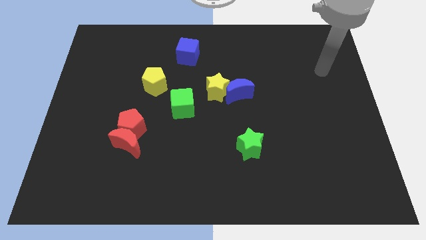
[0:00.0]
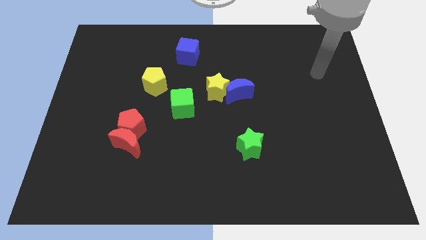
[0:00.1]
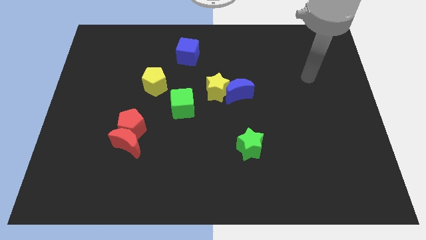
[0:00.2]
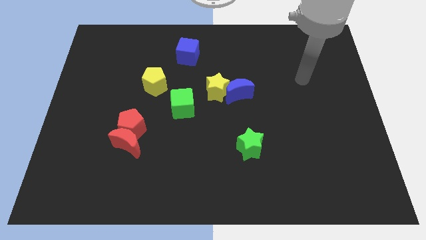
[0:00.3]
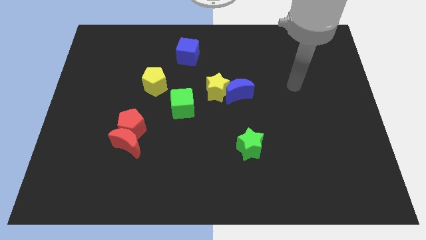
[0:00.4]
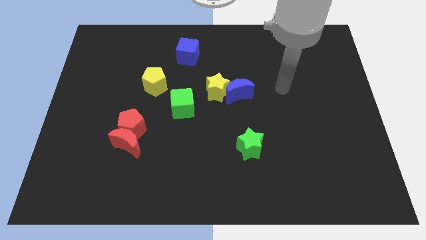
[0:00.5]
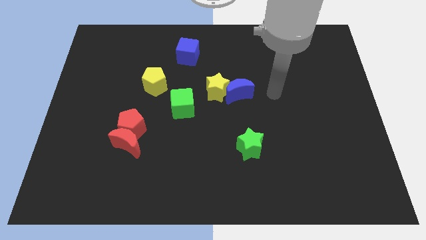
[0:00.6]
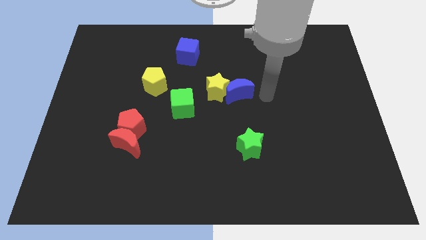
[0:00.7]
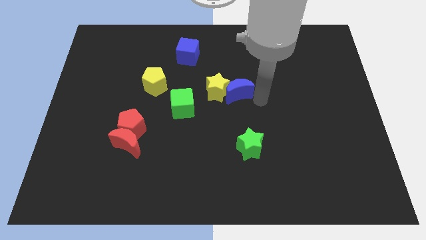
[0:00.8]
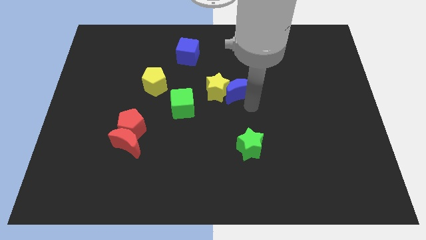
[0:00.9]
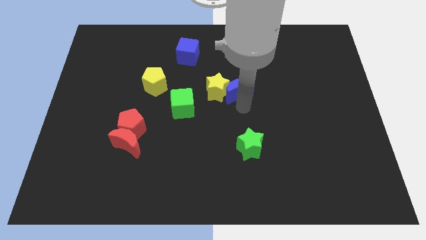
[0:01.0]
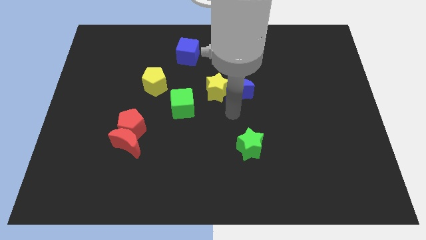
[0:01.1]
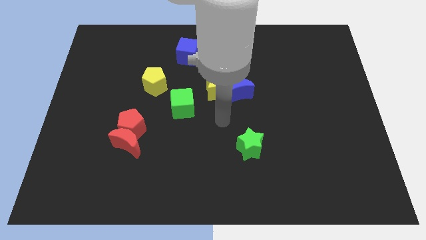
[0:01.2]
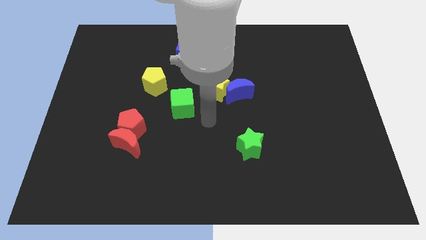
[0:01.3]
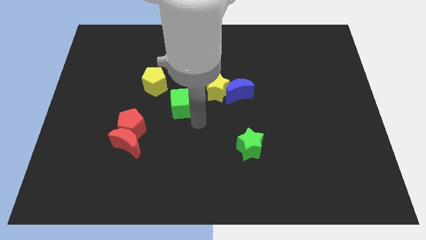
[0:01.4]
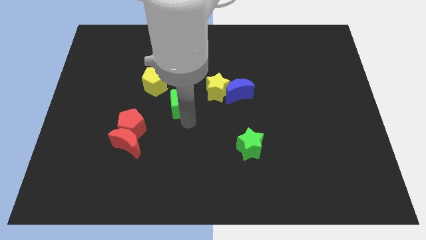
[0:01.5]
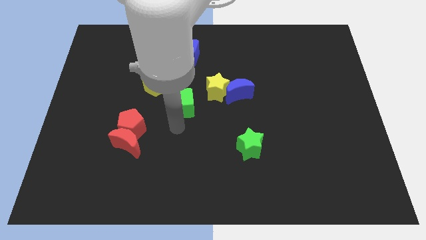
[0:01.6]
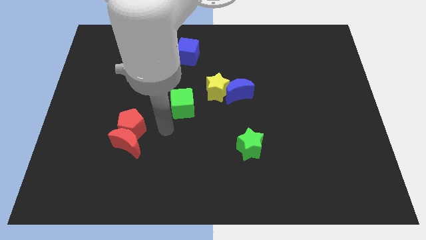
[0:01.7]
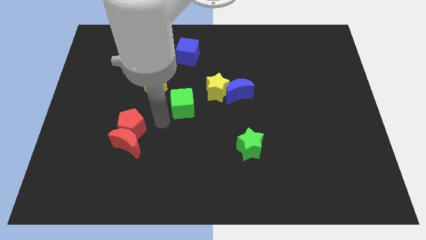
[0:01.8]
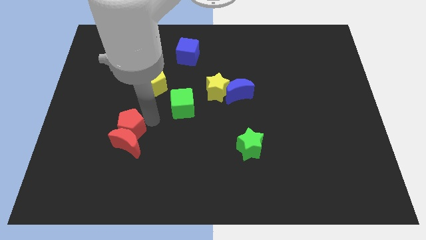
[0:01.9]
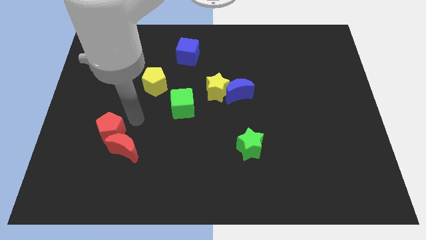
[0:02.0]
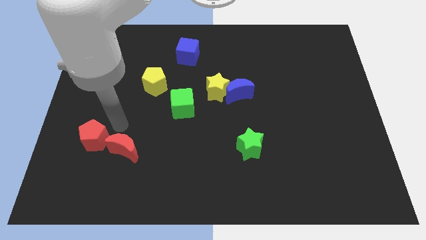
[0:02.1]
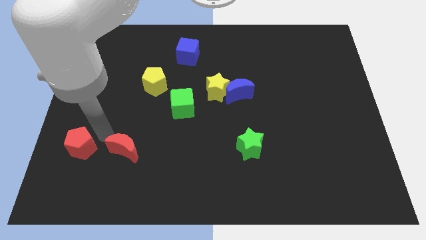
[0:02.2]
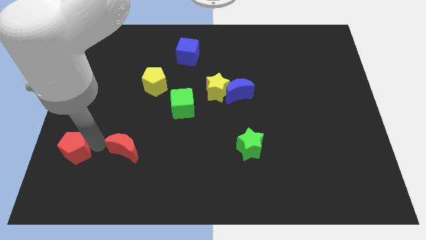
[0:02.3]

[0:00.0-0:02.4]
separate the red moon from the red pentagon

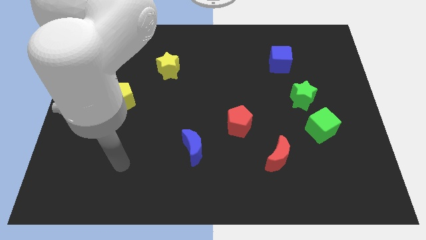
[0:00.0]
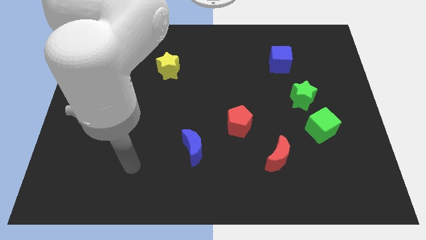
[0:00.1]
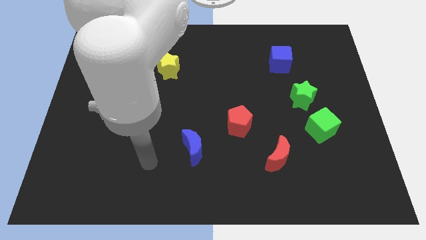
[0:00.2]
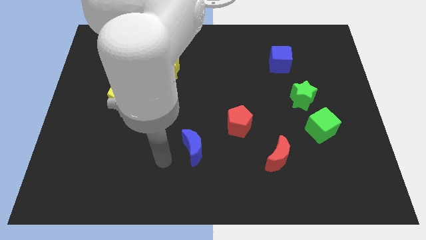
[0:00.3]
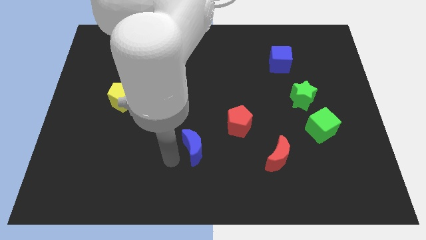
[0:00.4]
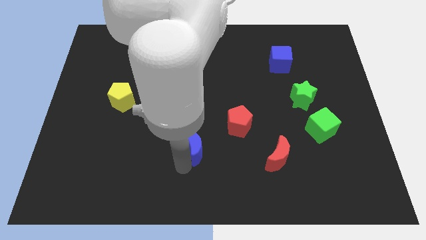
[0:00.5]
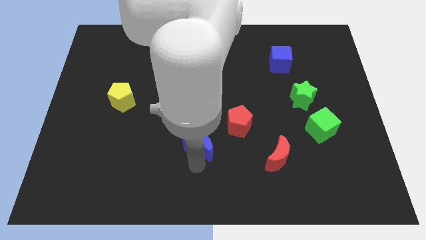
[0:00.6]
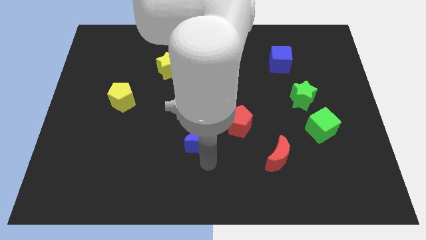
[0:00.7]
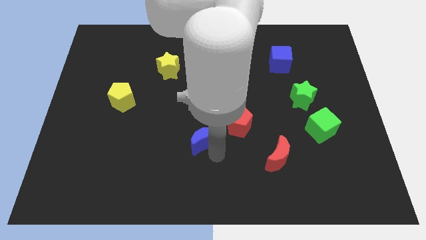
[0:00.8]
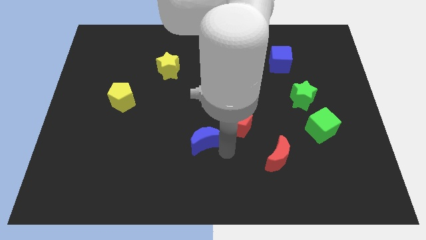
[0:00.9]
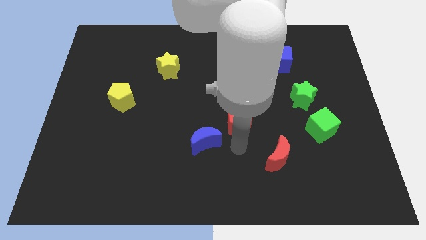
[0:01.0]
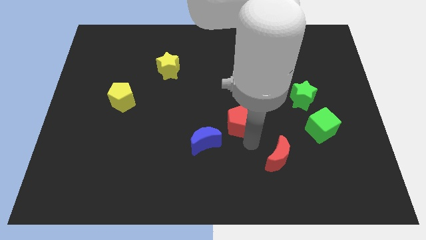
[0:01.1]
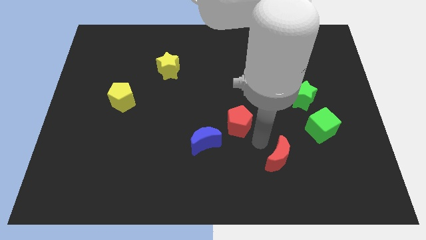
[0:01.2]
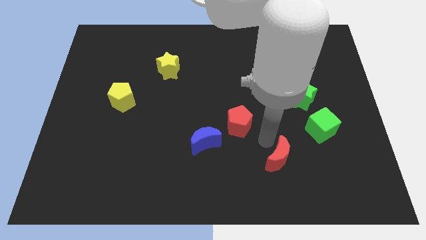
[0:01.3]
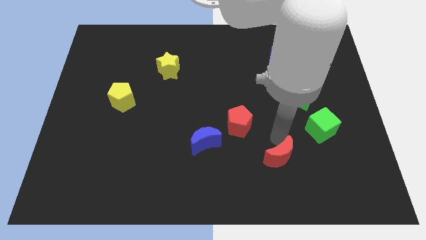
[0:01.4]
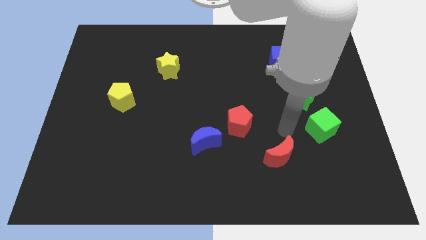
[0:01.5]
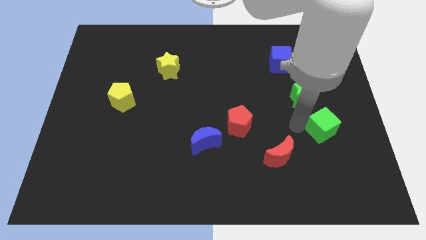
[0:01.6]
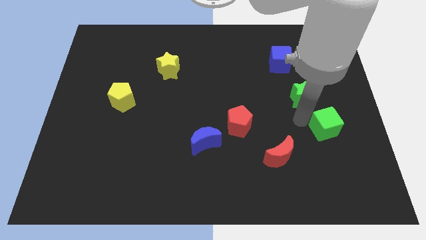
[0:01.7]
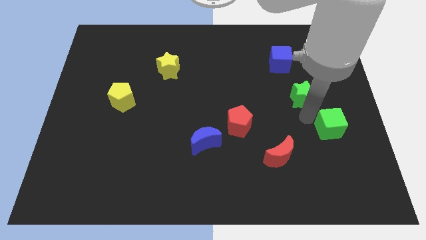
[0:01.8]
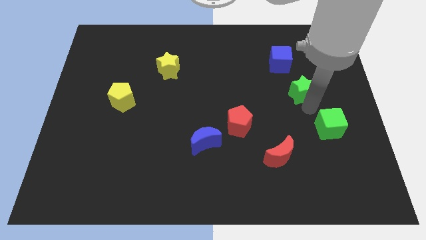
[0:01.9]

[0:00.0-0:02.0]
move the green cube away from the green star

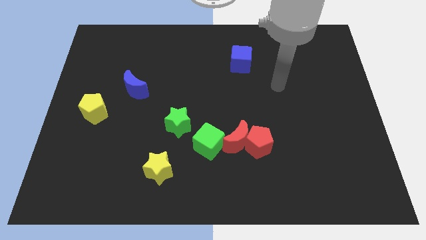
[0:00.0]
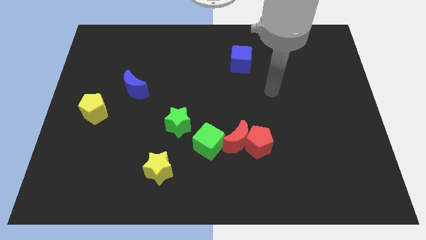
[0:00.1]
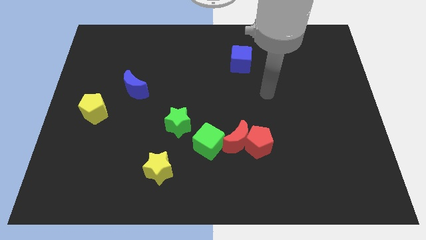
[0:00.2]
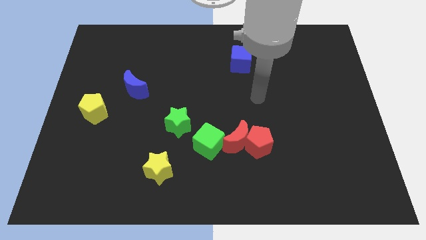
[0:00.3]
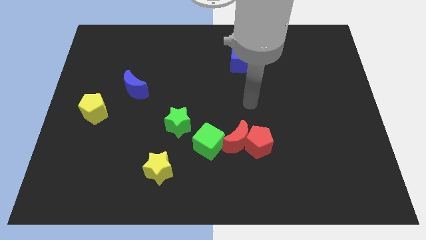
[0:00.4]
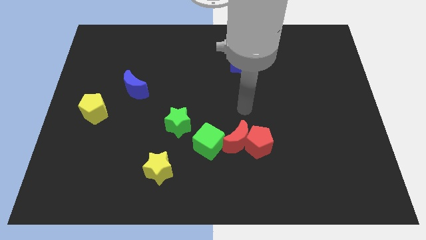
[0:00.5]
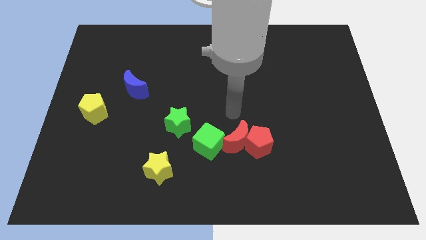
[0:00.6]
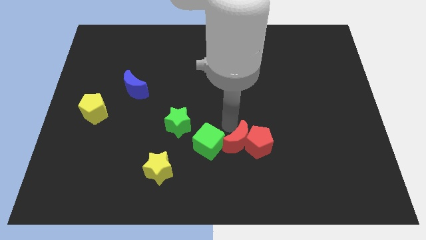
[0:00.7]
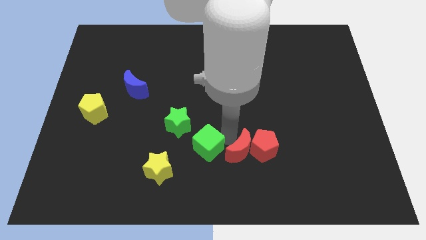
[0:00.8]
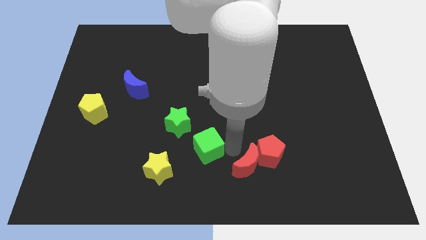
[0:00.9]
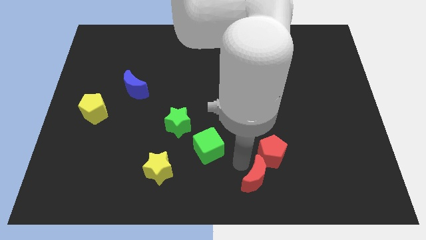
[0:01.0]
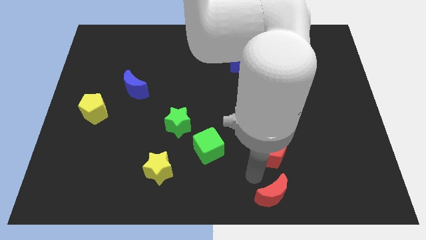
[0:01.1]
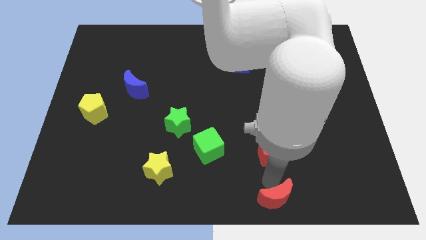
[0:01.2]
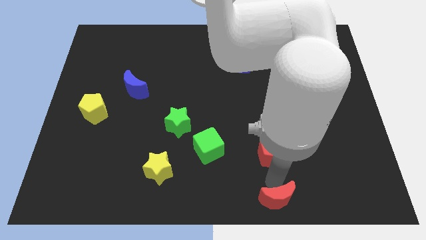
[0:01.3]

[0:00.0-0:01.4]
separate the red pentagon from the red moon

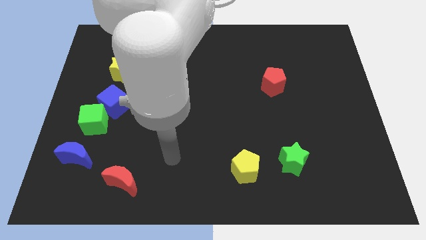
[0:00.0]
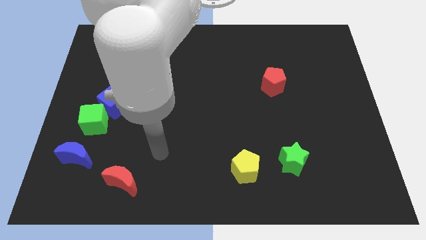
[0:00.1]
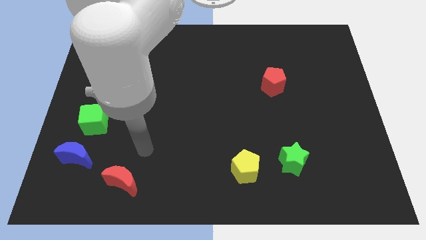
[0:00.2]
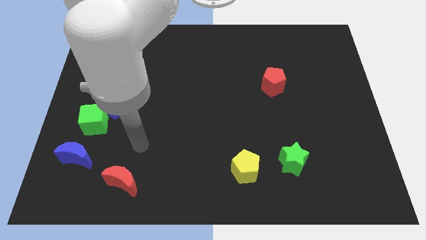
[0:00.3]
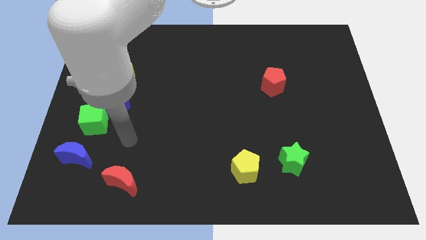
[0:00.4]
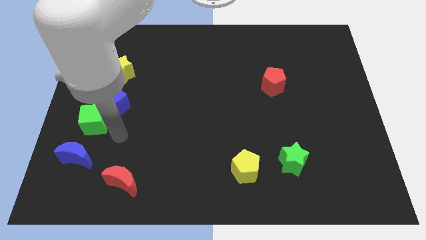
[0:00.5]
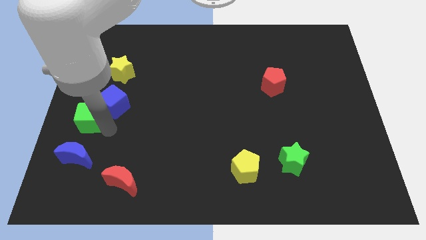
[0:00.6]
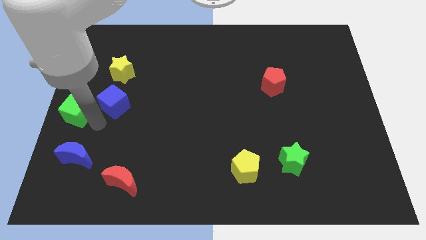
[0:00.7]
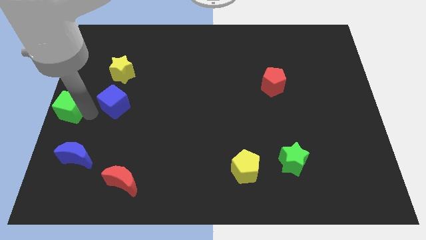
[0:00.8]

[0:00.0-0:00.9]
separate the blue cube from the green cube

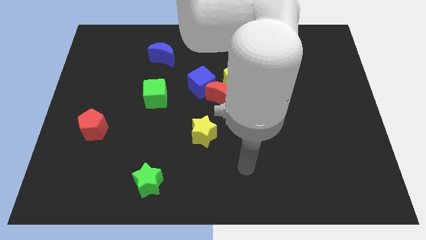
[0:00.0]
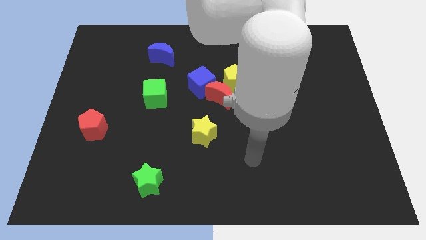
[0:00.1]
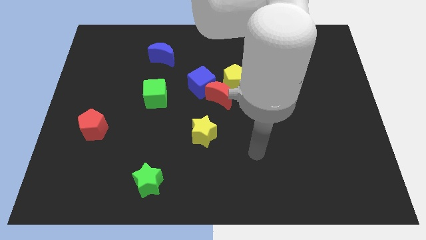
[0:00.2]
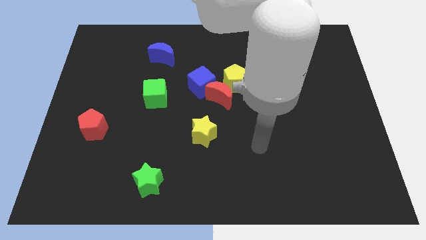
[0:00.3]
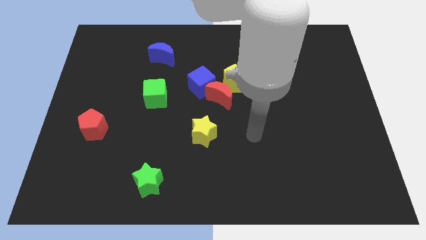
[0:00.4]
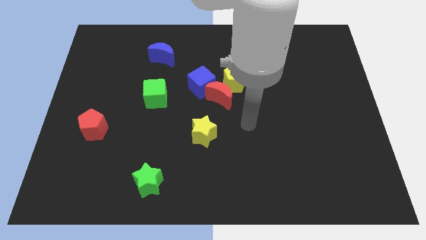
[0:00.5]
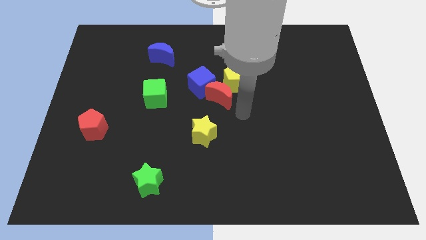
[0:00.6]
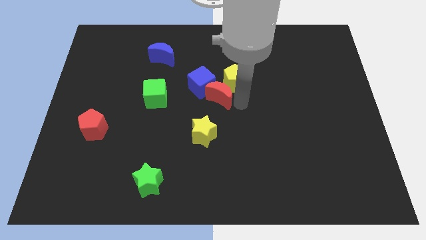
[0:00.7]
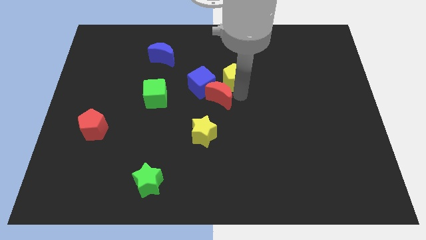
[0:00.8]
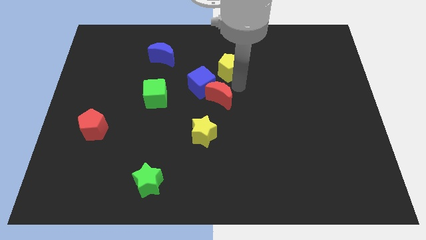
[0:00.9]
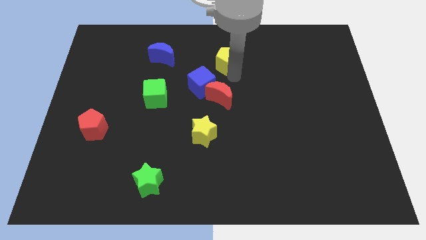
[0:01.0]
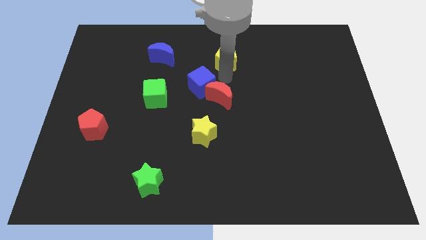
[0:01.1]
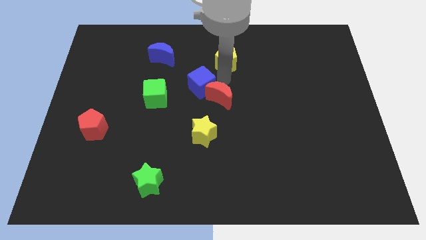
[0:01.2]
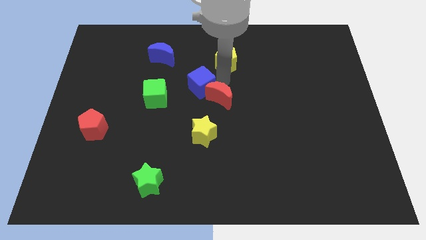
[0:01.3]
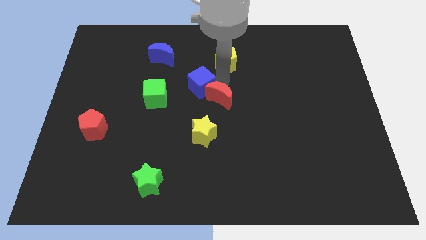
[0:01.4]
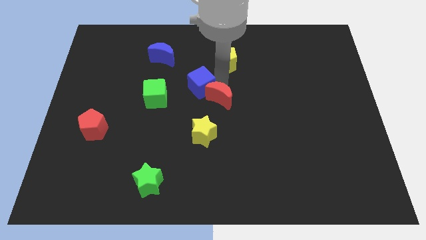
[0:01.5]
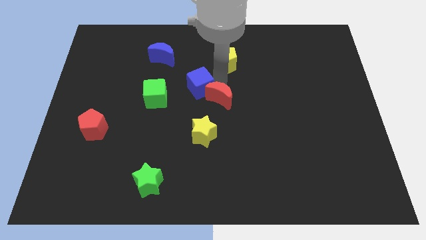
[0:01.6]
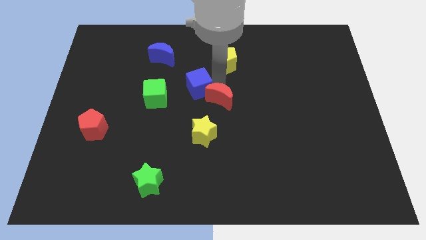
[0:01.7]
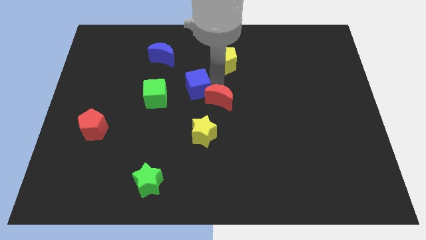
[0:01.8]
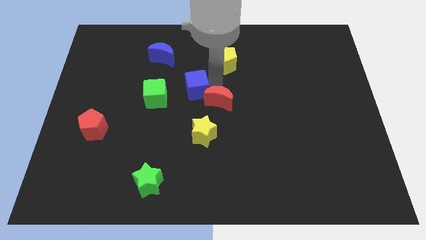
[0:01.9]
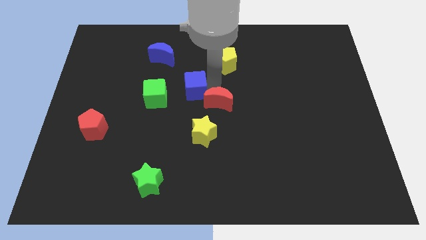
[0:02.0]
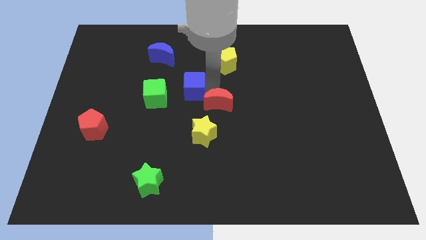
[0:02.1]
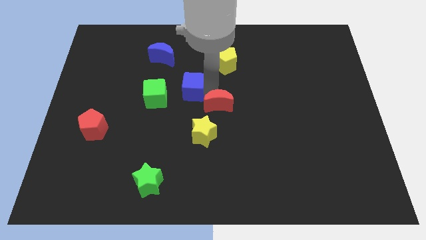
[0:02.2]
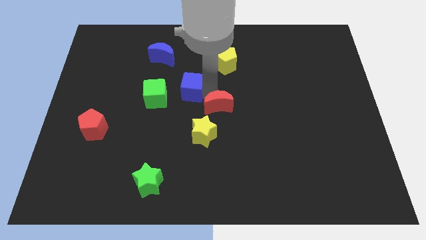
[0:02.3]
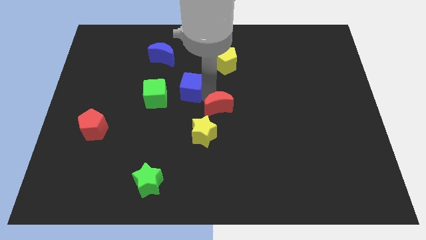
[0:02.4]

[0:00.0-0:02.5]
separate the red moon from the blue cube and yellow pentagon

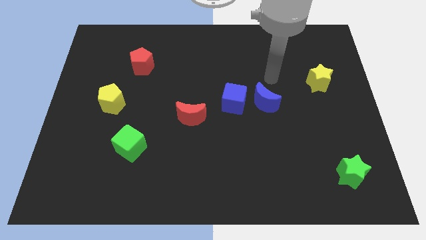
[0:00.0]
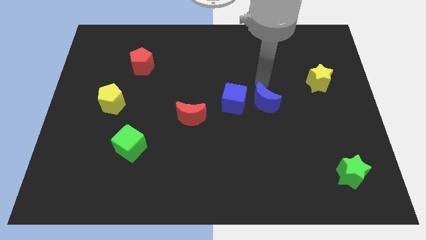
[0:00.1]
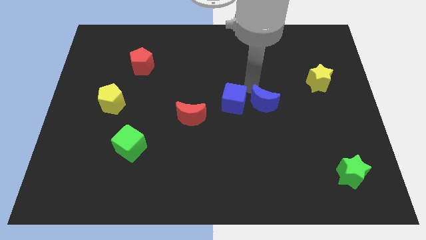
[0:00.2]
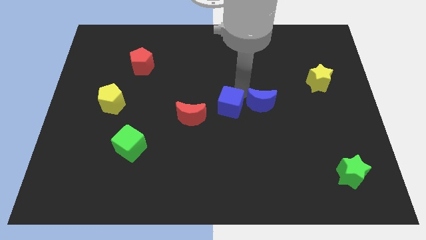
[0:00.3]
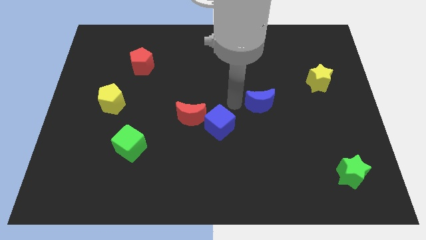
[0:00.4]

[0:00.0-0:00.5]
pull the blue moon apart from the blue cube
